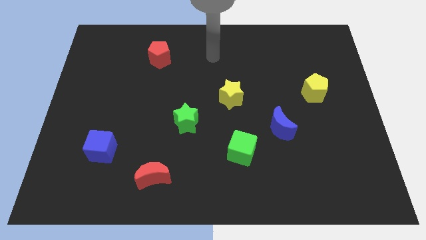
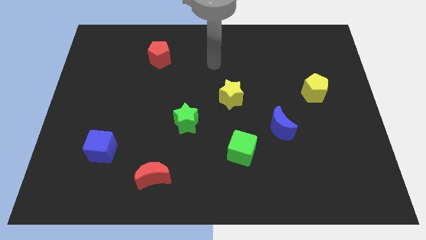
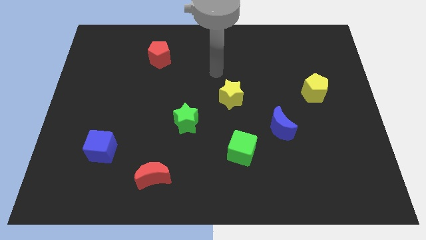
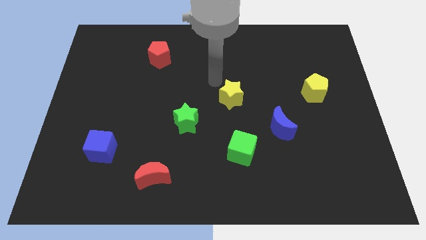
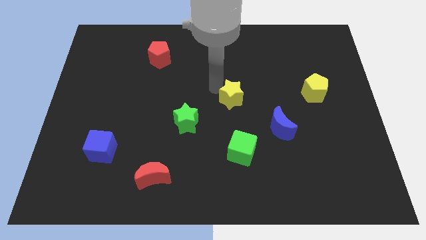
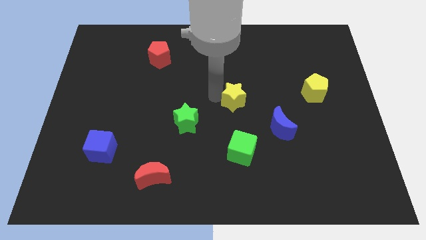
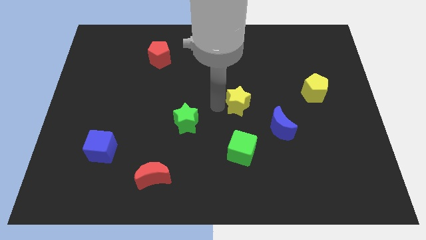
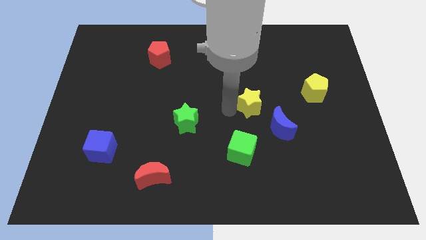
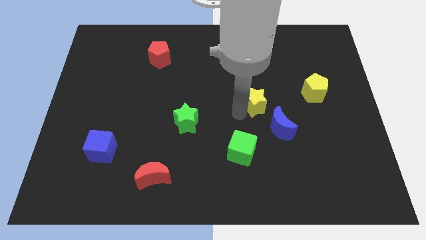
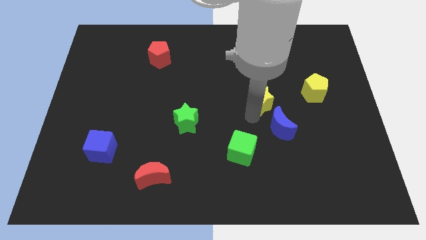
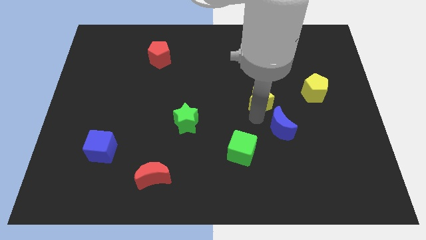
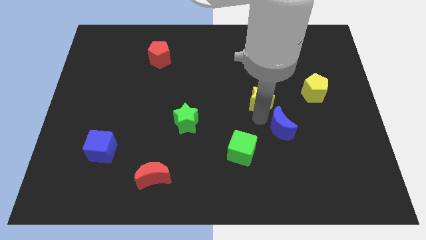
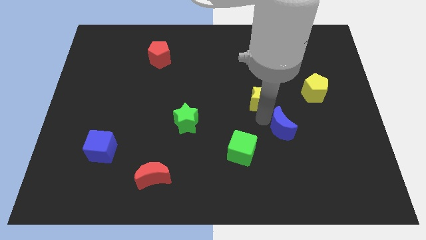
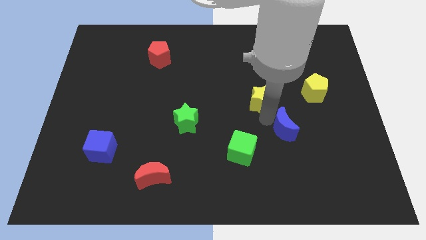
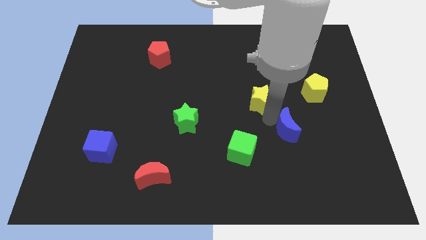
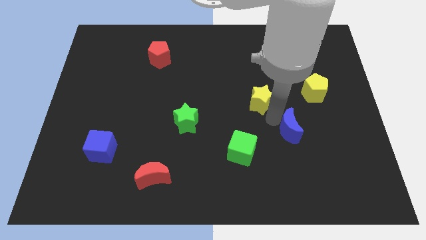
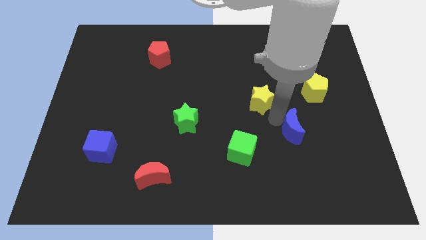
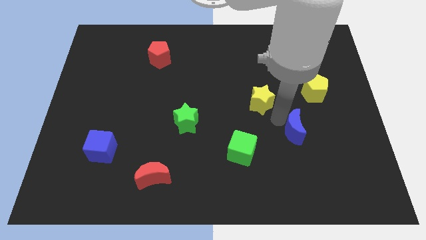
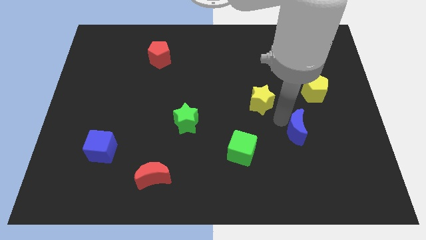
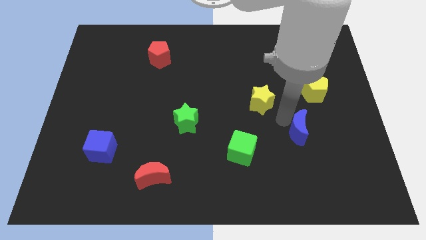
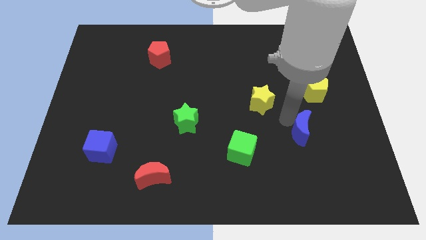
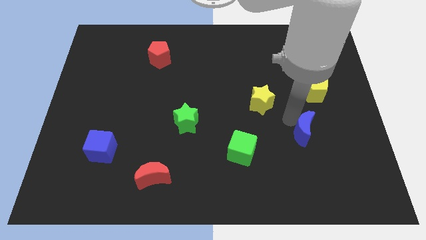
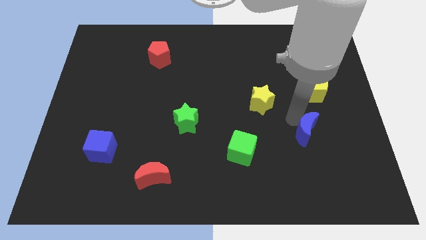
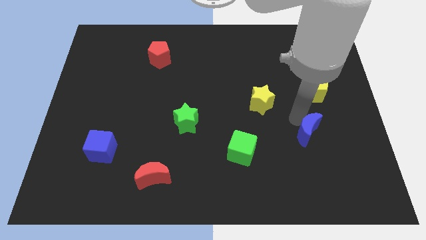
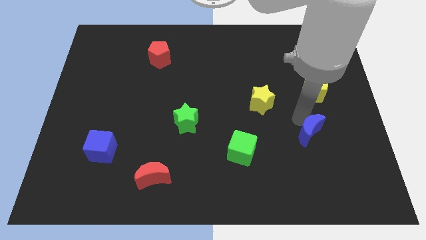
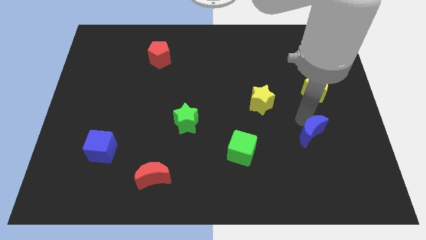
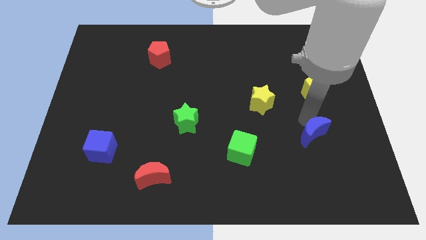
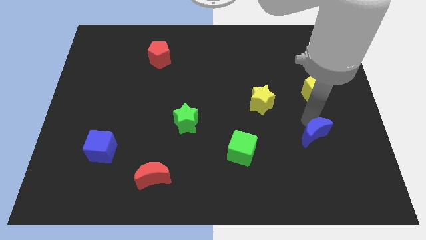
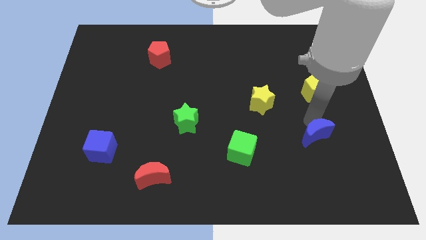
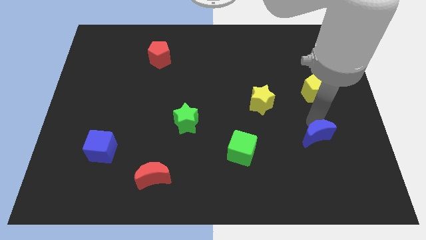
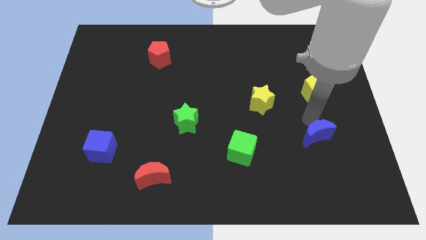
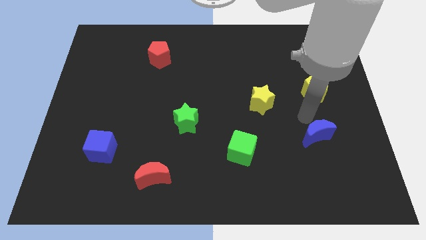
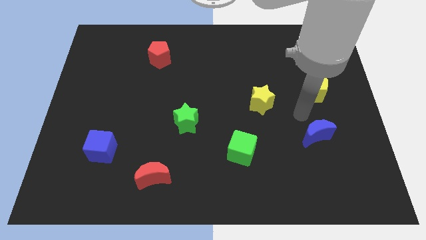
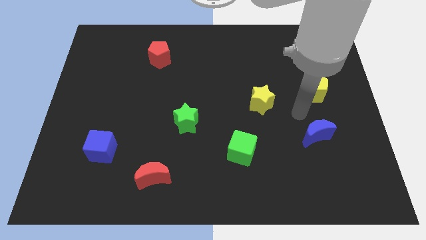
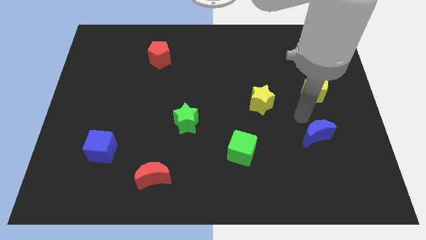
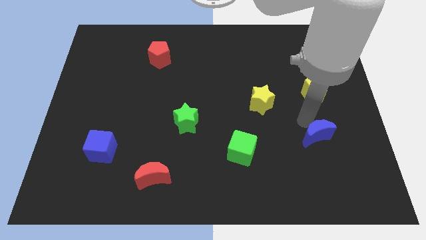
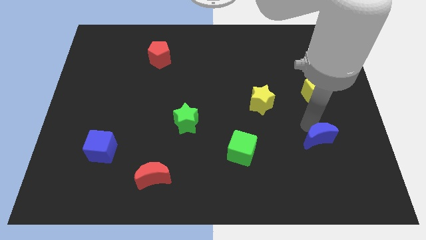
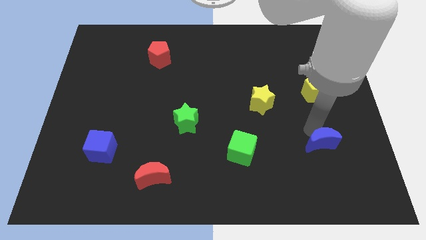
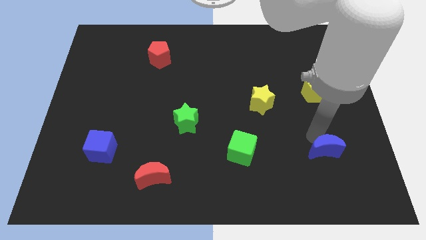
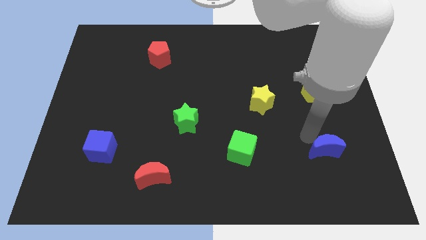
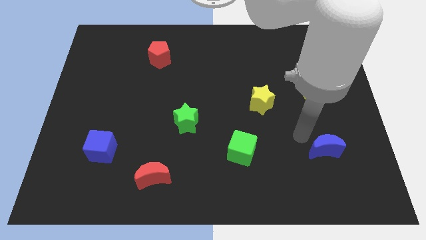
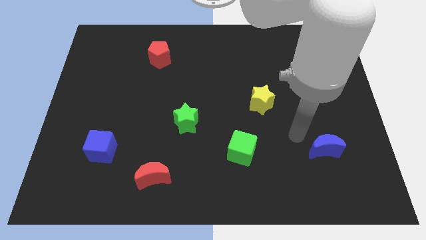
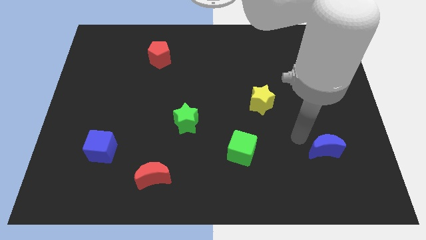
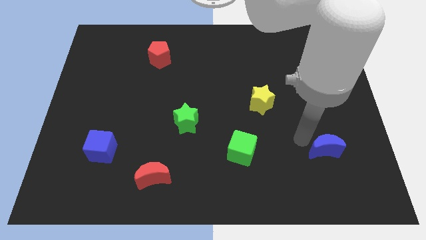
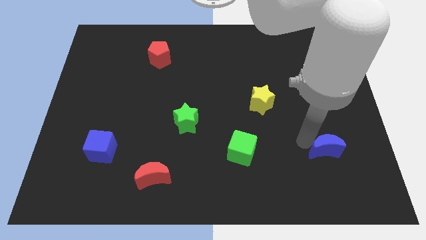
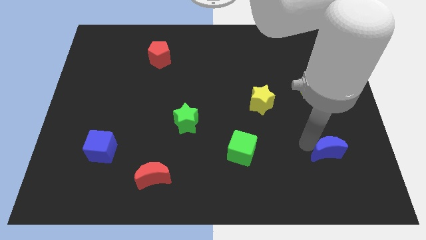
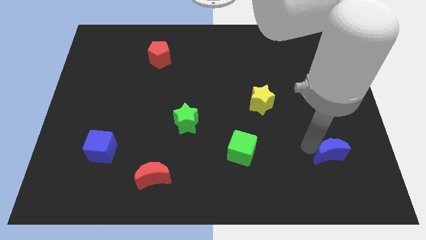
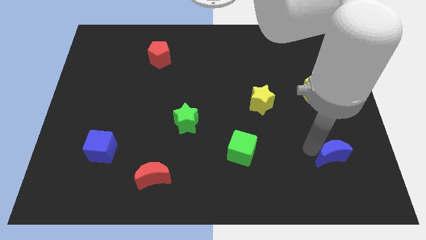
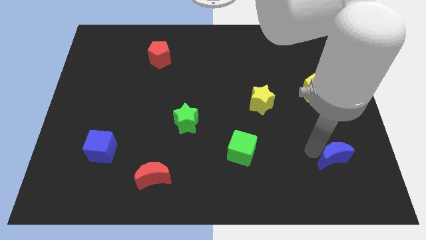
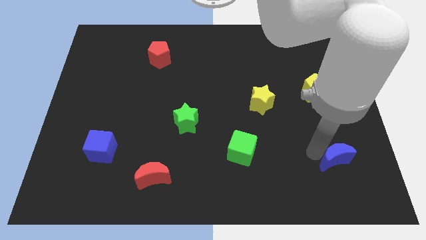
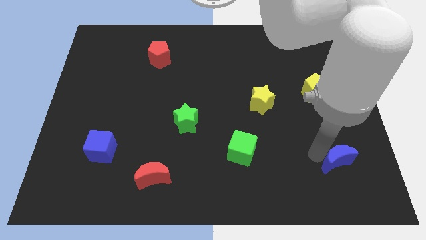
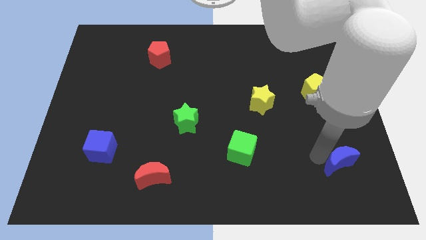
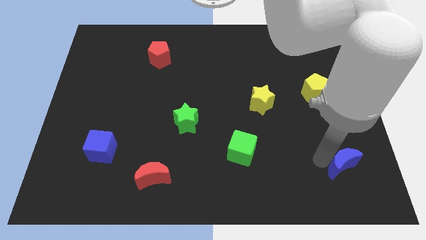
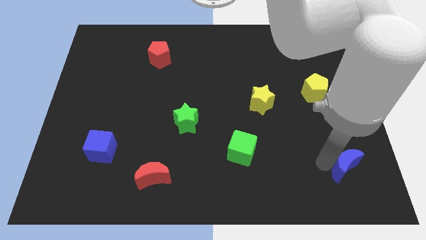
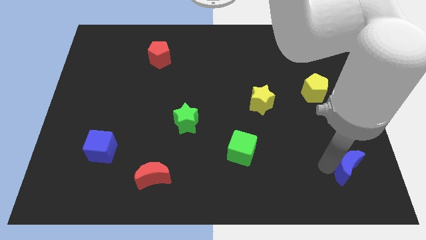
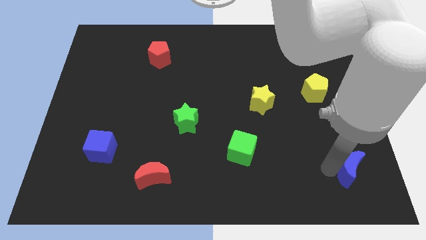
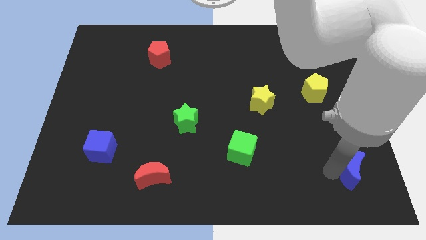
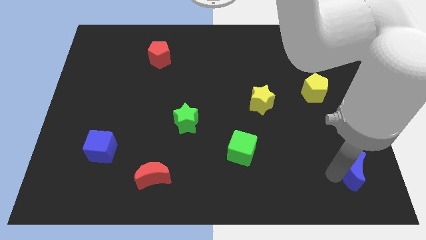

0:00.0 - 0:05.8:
move the blue moon to the bottom right corner

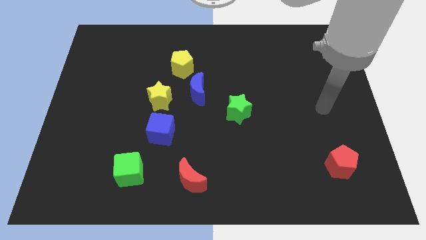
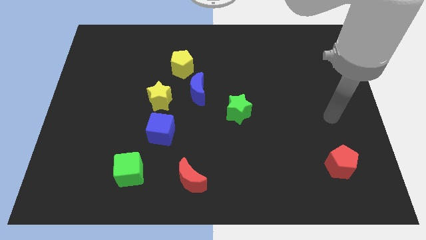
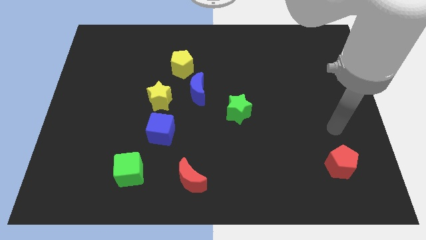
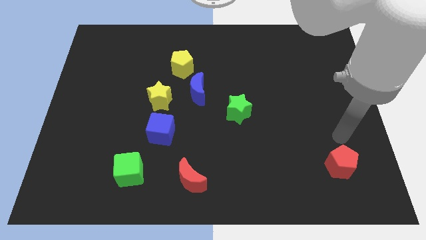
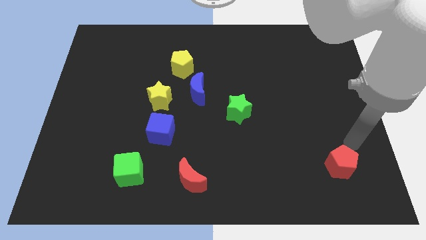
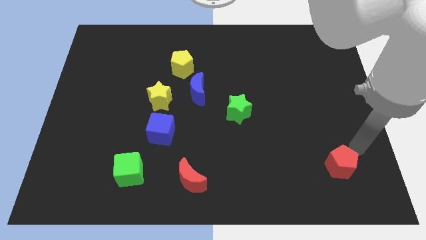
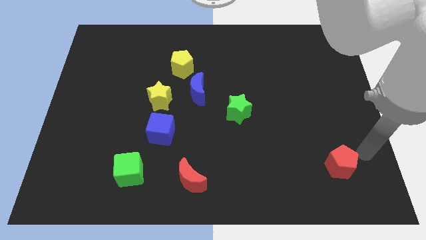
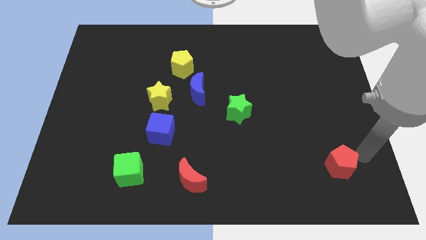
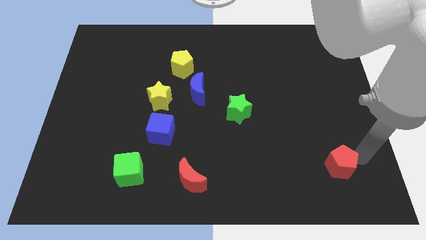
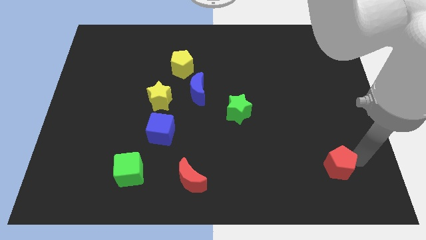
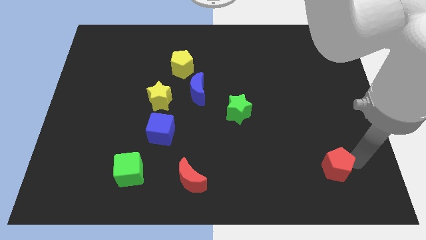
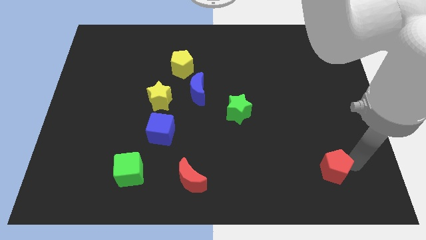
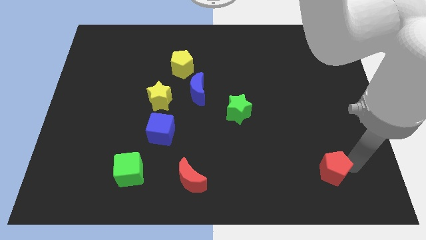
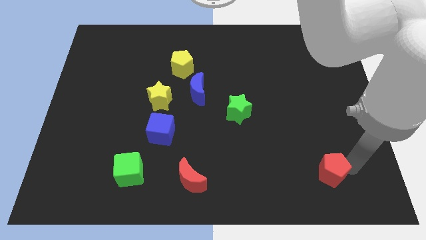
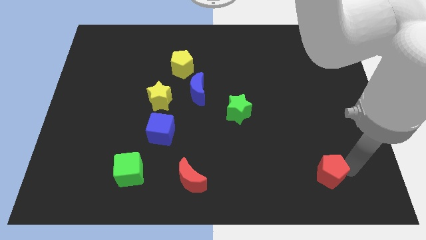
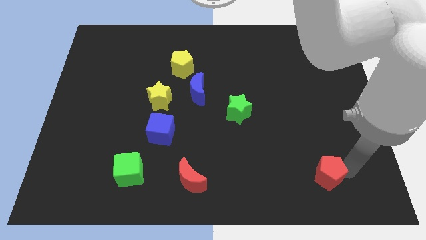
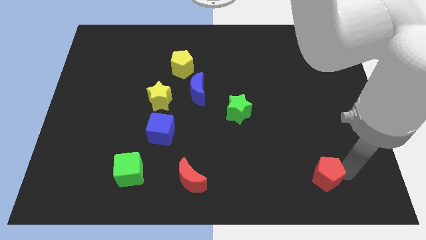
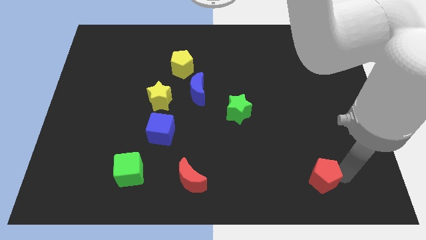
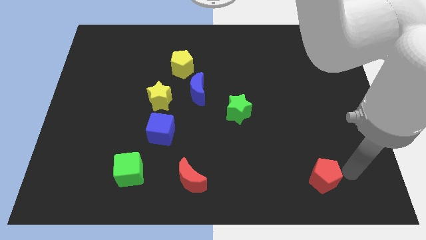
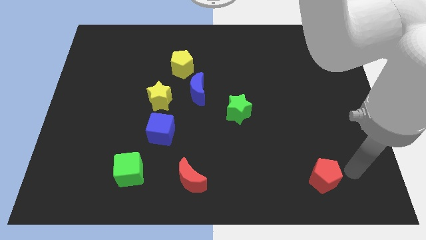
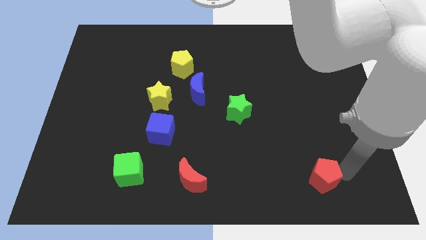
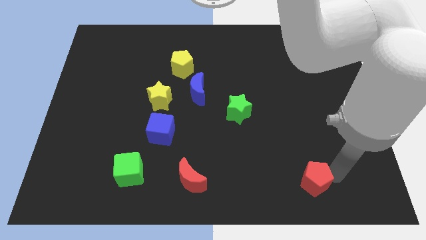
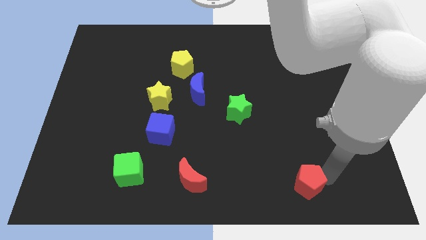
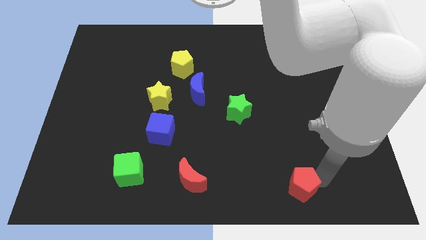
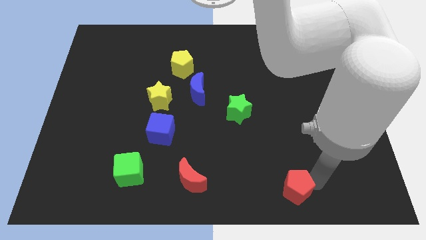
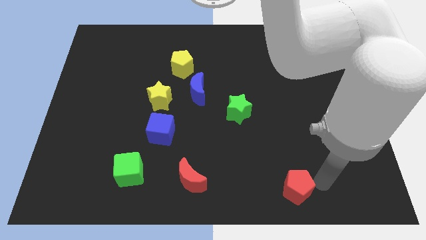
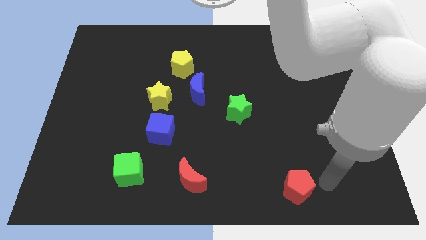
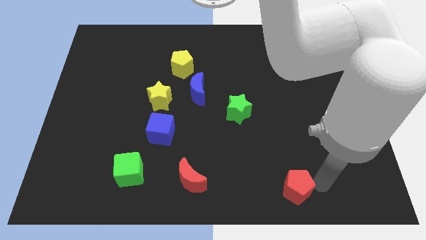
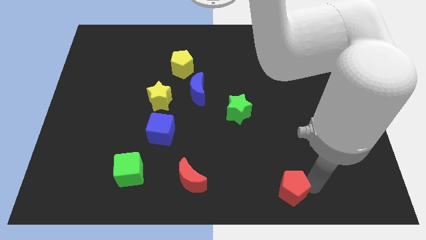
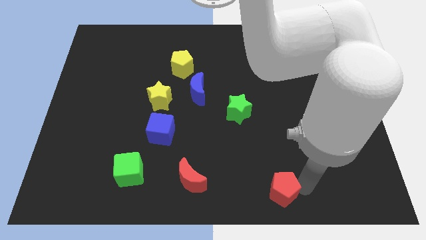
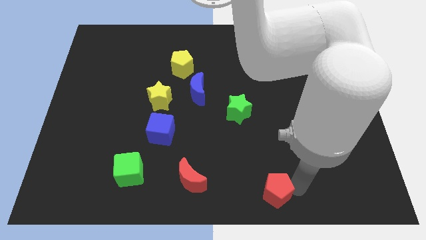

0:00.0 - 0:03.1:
push the red pentagon to the bottom
